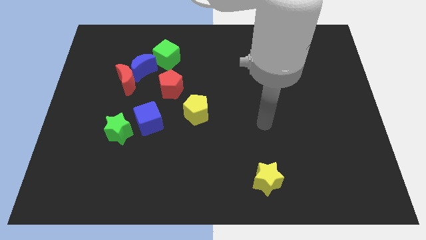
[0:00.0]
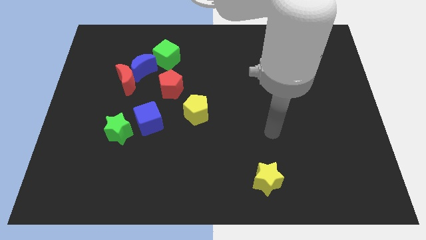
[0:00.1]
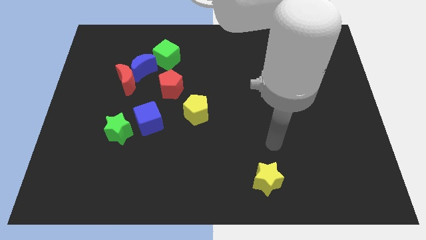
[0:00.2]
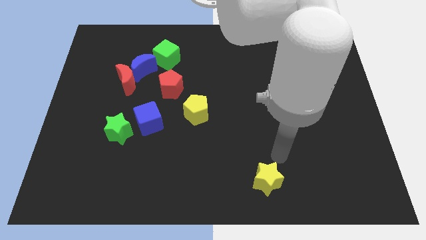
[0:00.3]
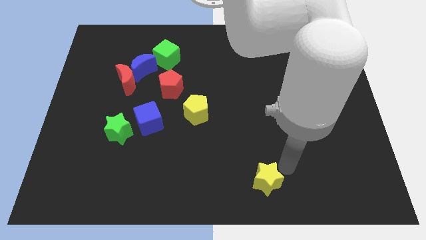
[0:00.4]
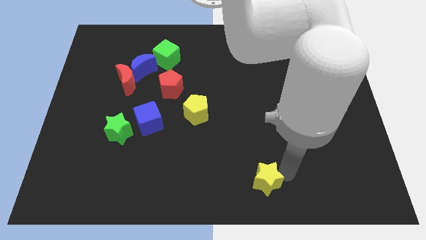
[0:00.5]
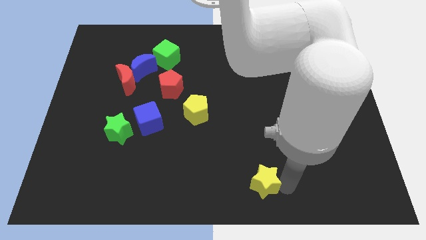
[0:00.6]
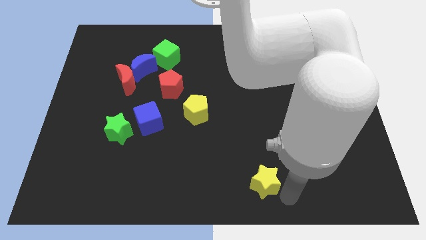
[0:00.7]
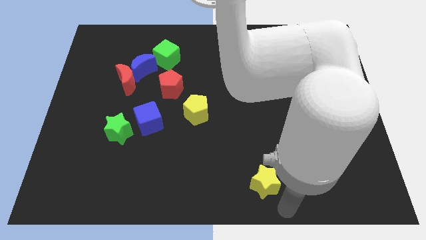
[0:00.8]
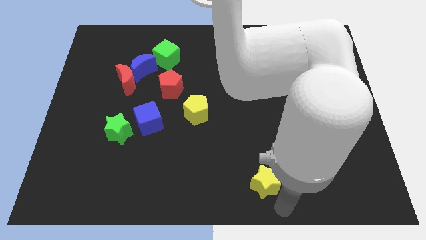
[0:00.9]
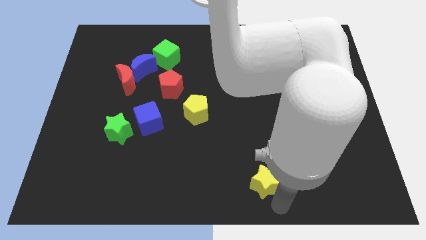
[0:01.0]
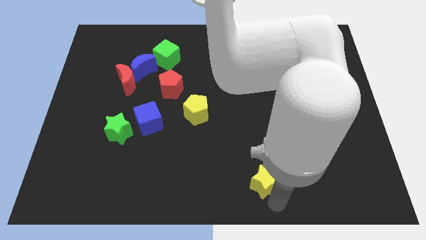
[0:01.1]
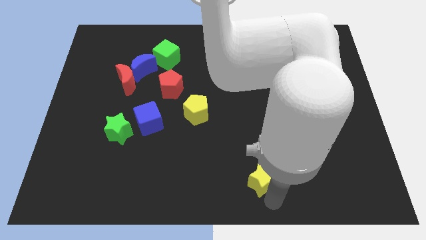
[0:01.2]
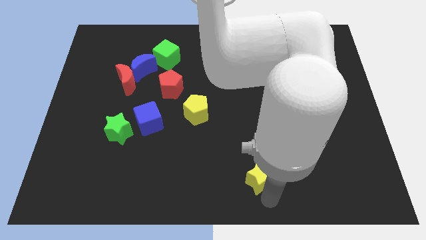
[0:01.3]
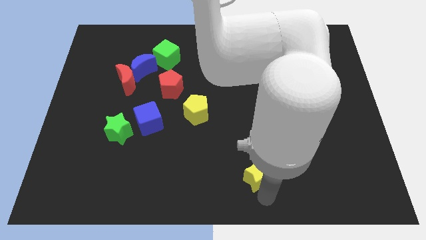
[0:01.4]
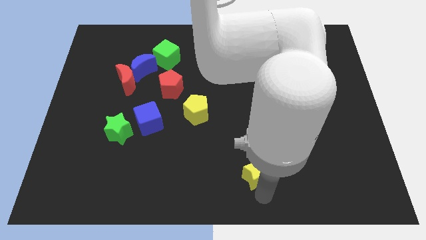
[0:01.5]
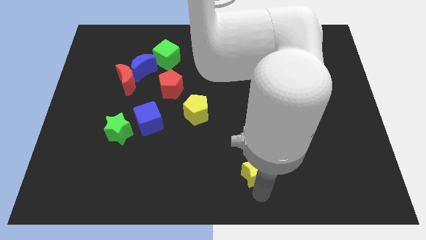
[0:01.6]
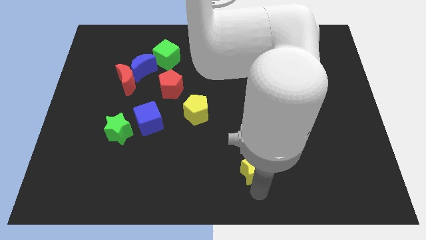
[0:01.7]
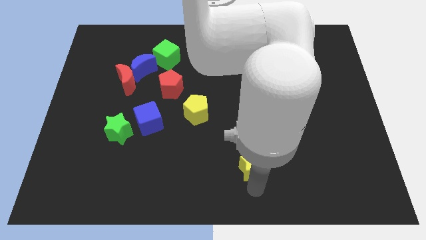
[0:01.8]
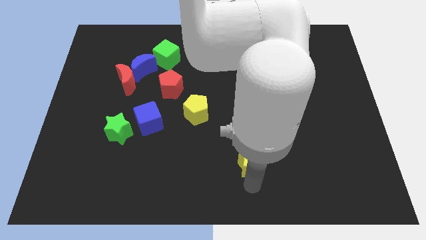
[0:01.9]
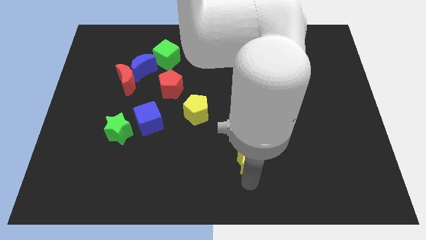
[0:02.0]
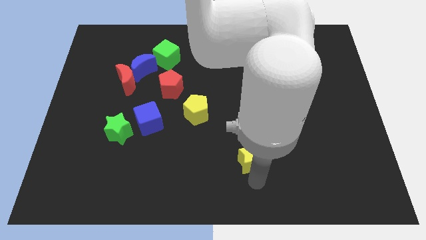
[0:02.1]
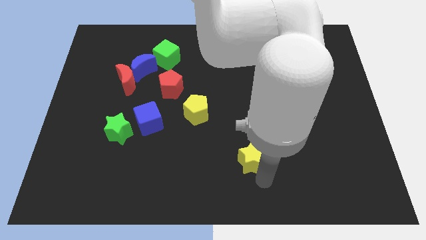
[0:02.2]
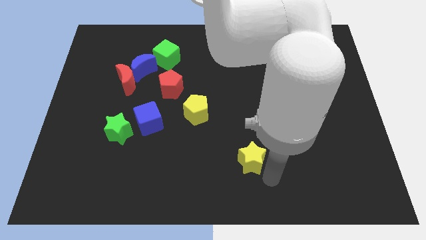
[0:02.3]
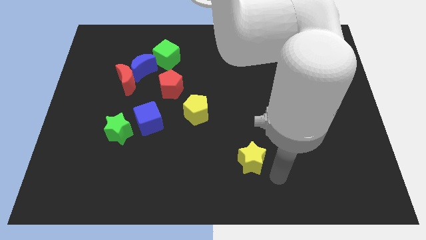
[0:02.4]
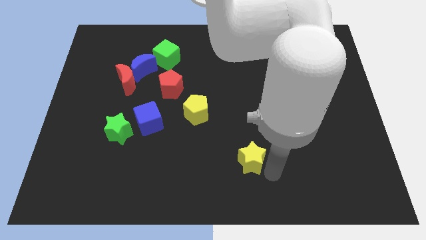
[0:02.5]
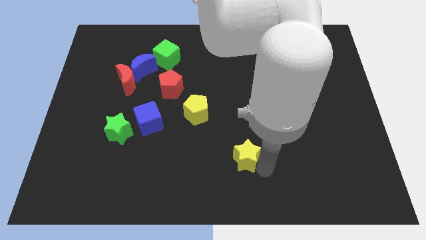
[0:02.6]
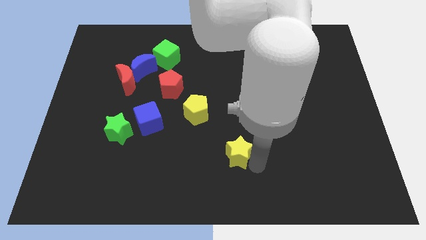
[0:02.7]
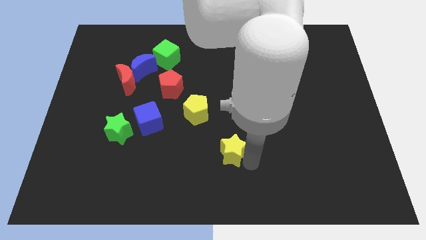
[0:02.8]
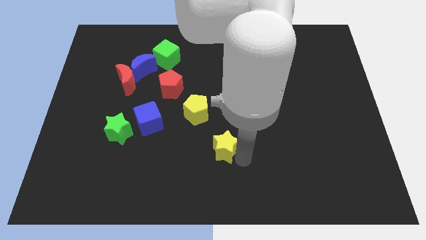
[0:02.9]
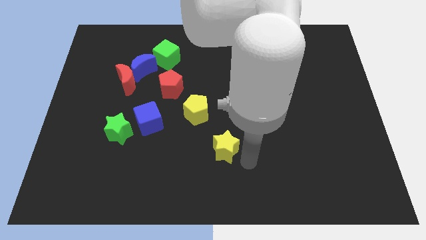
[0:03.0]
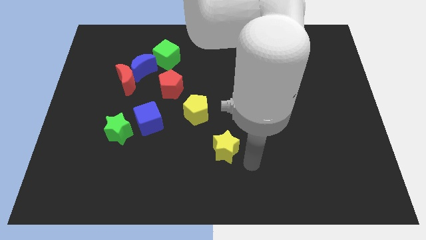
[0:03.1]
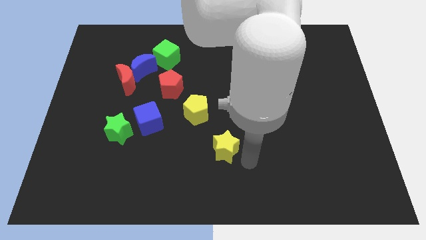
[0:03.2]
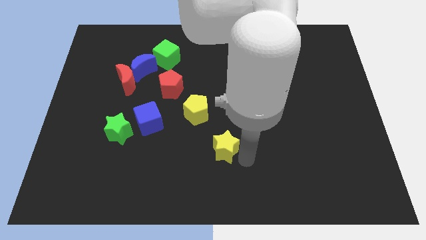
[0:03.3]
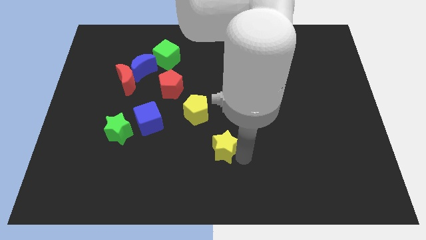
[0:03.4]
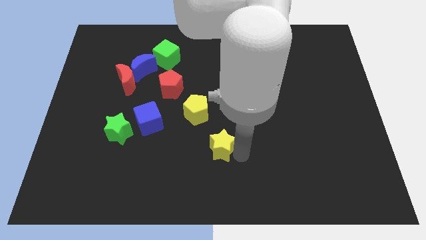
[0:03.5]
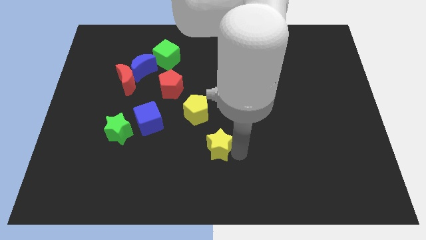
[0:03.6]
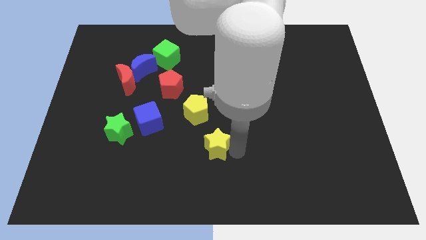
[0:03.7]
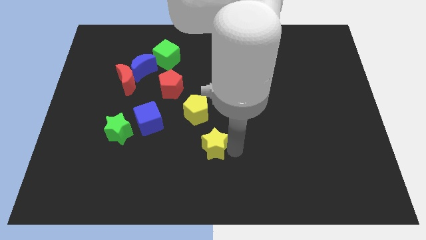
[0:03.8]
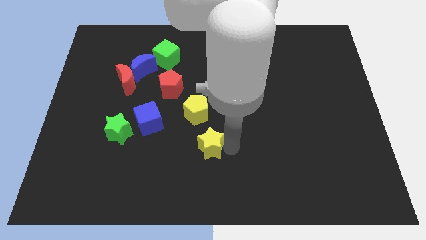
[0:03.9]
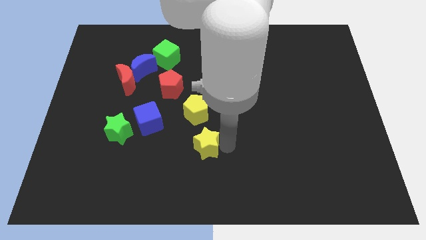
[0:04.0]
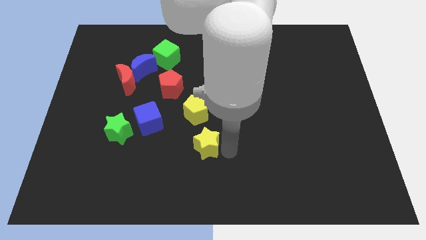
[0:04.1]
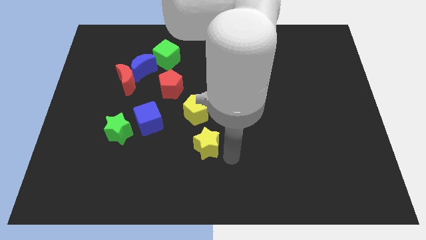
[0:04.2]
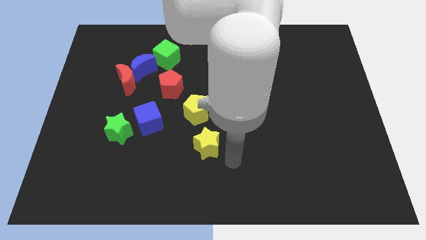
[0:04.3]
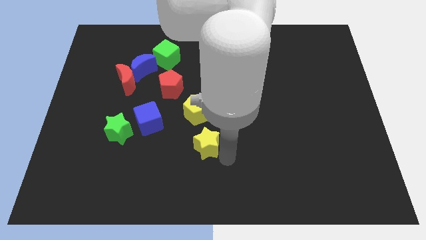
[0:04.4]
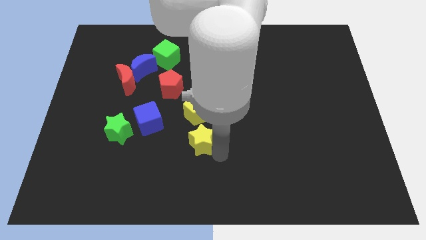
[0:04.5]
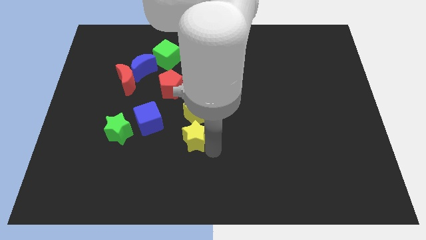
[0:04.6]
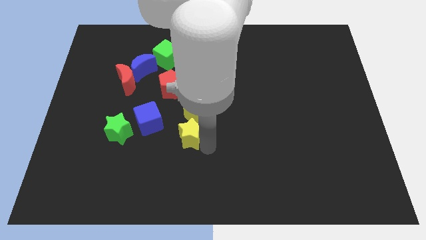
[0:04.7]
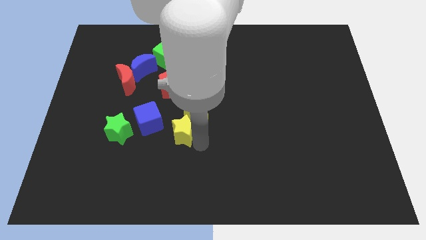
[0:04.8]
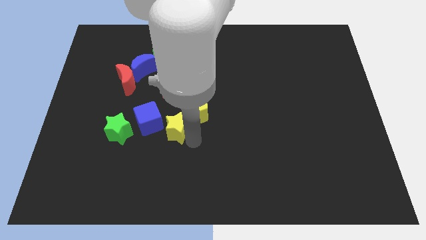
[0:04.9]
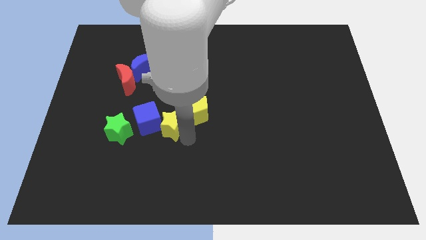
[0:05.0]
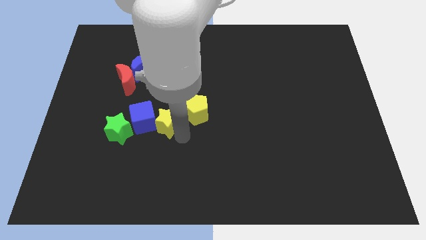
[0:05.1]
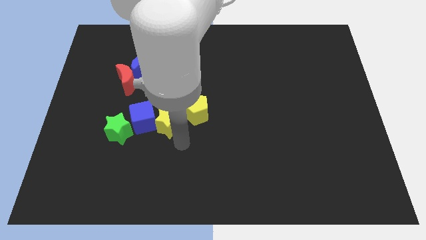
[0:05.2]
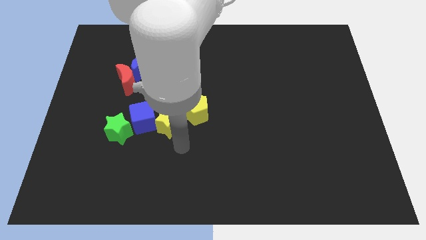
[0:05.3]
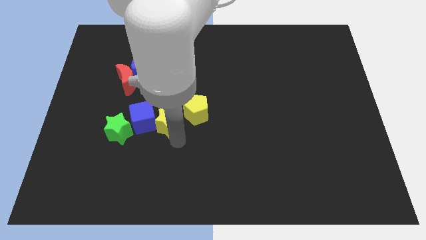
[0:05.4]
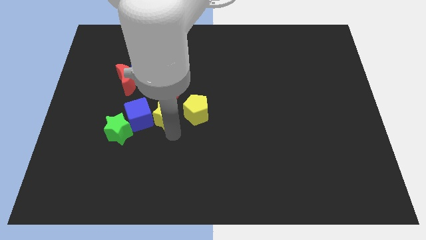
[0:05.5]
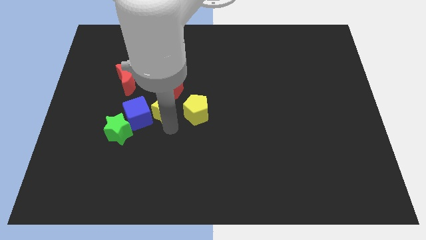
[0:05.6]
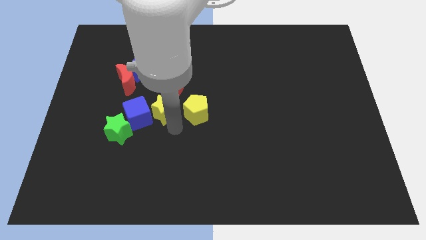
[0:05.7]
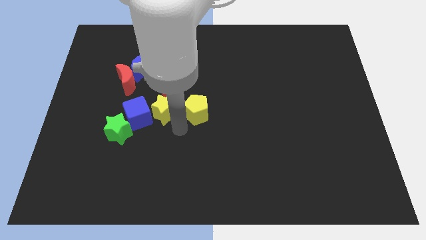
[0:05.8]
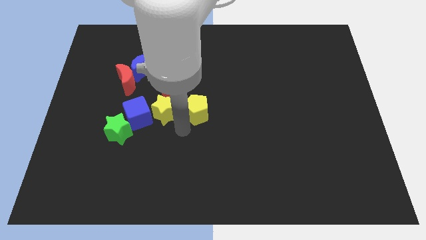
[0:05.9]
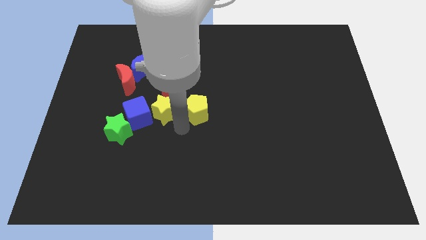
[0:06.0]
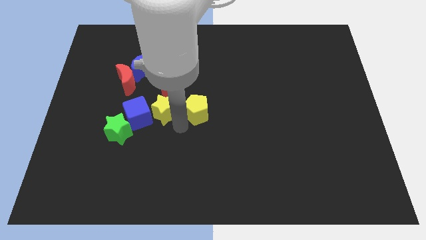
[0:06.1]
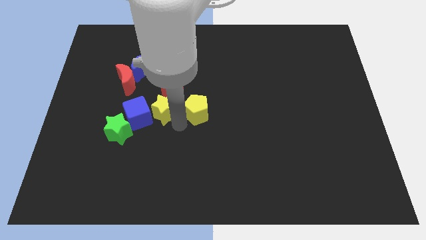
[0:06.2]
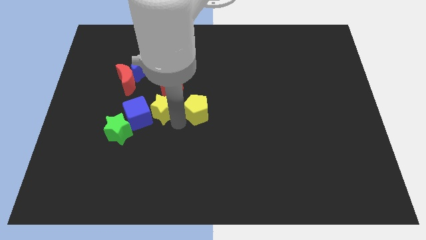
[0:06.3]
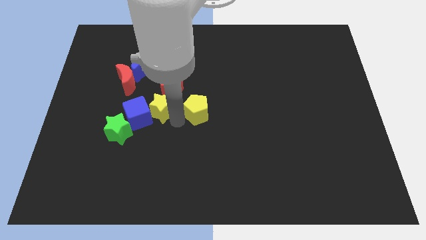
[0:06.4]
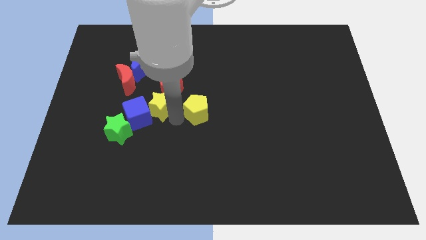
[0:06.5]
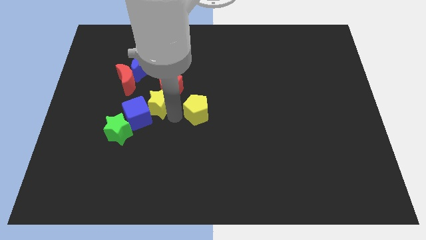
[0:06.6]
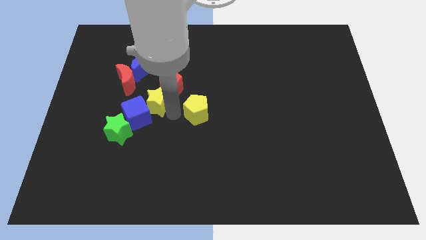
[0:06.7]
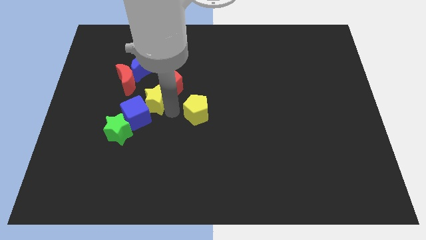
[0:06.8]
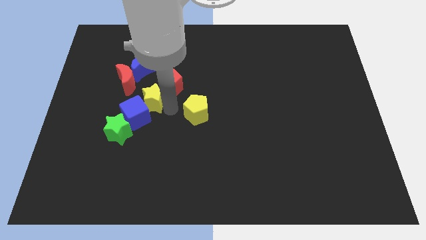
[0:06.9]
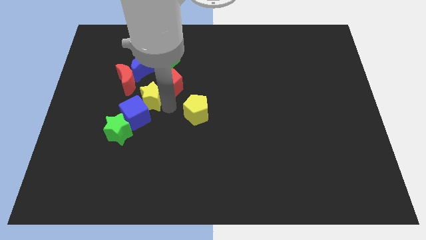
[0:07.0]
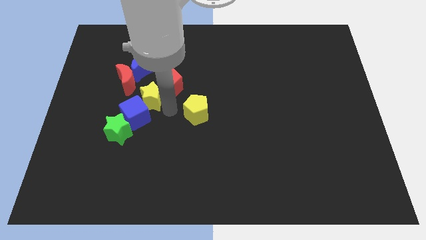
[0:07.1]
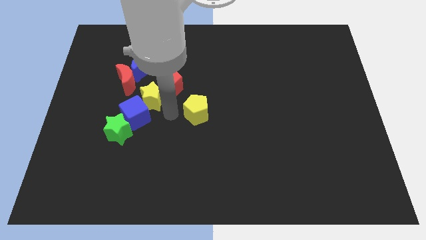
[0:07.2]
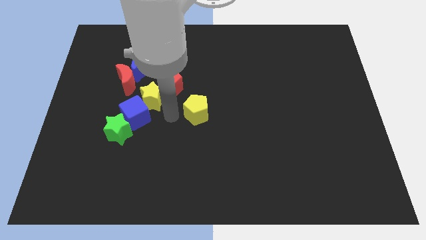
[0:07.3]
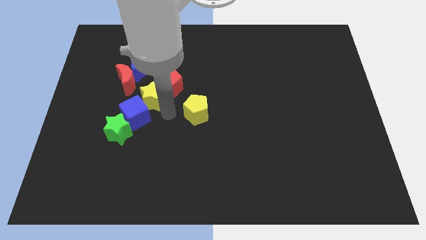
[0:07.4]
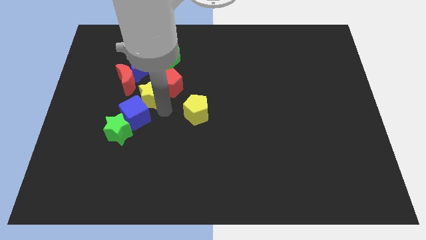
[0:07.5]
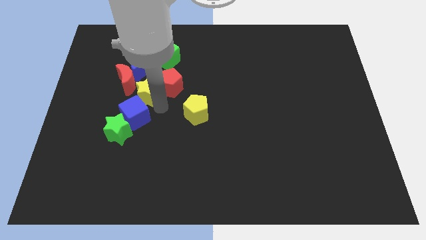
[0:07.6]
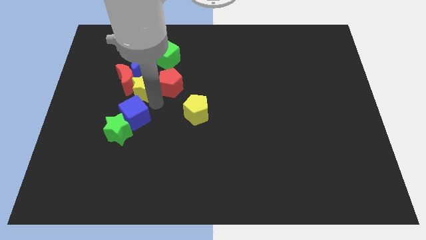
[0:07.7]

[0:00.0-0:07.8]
slide the yellow star next to the red moon

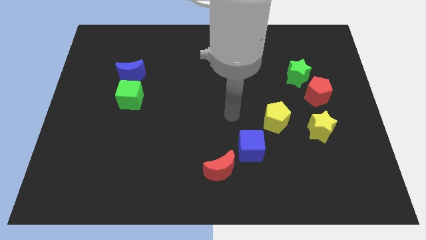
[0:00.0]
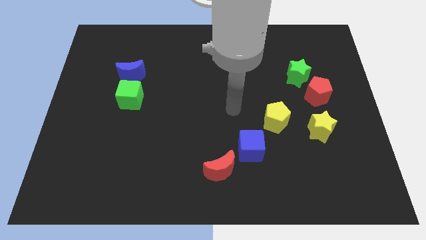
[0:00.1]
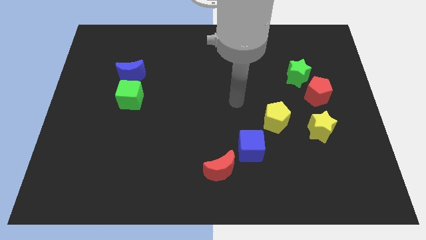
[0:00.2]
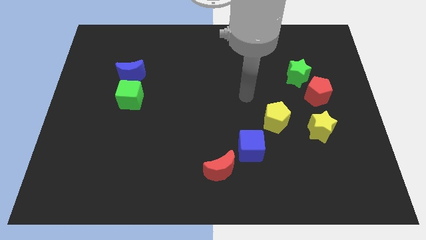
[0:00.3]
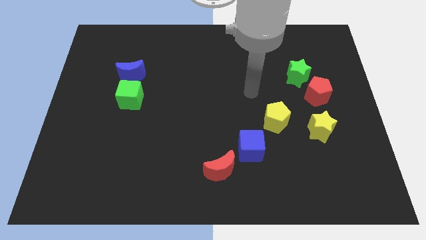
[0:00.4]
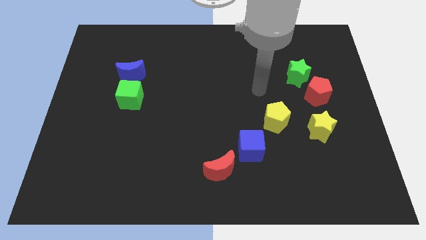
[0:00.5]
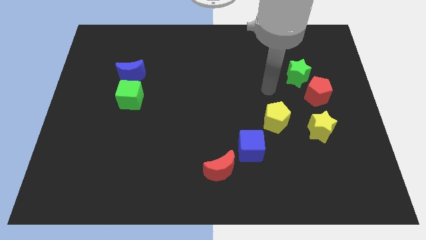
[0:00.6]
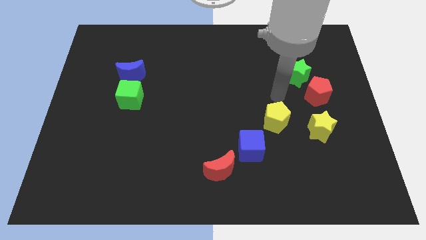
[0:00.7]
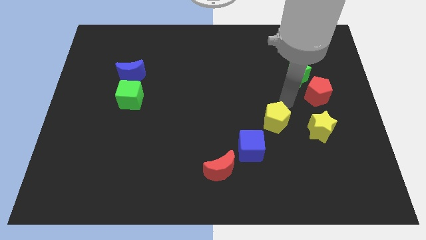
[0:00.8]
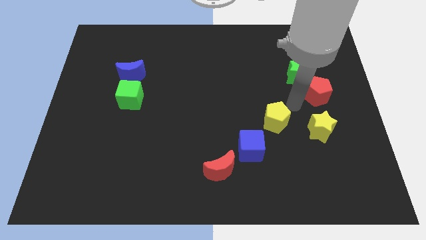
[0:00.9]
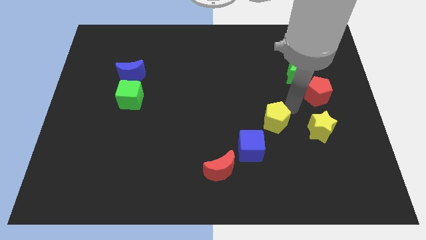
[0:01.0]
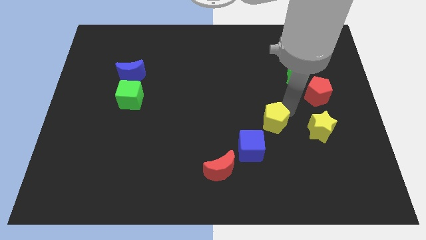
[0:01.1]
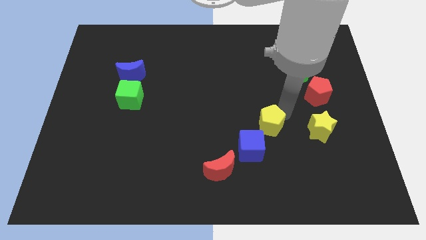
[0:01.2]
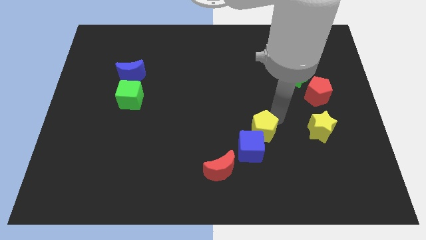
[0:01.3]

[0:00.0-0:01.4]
push the yellow pentagon close to the blue cube
